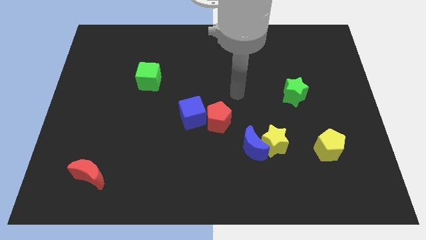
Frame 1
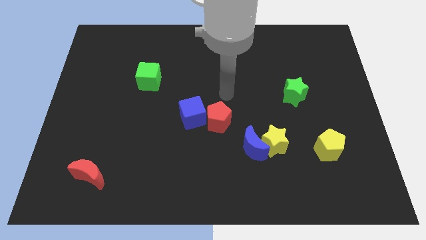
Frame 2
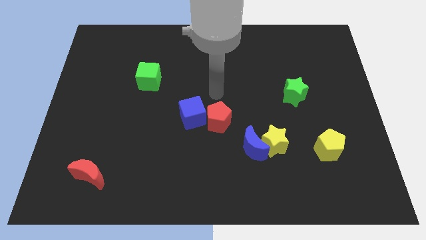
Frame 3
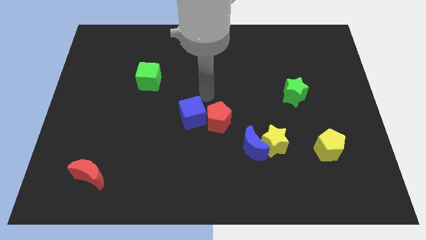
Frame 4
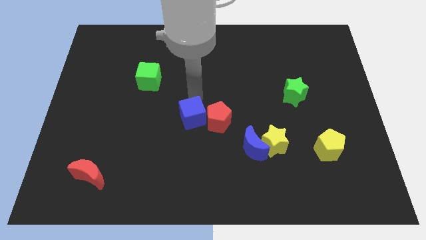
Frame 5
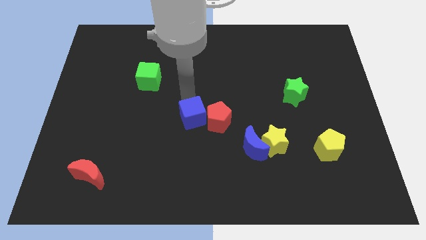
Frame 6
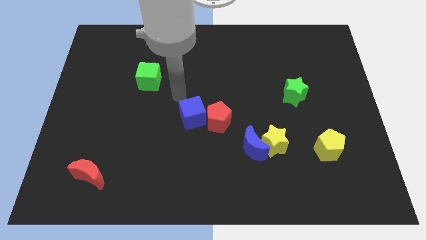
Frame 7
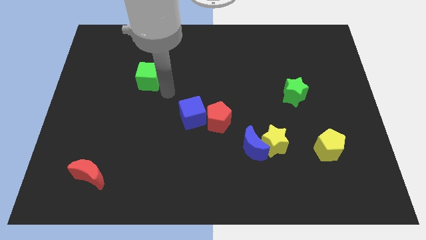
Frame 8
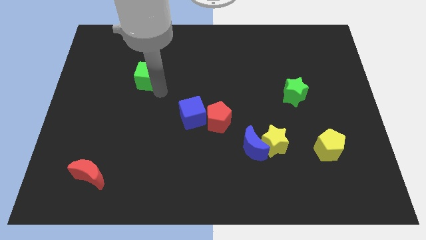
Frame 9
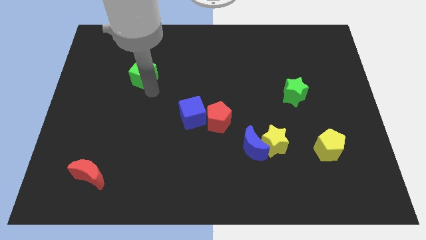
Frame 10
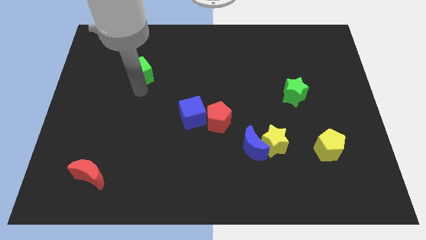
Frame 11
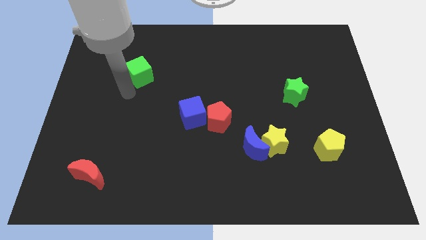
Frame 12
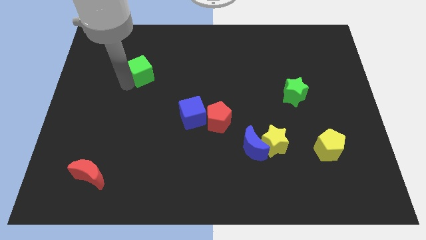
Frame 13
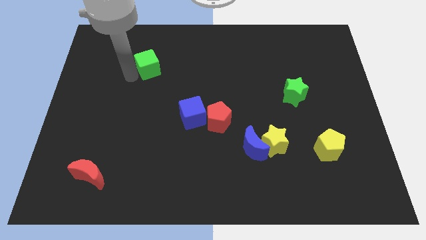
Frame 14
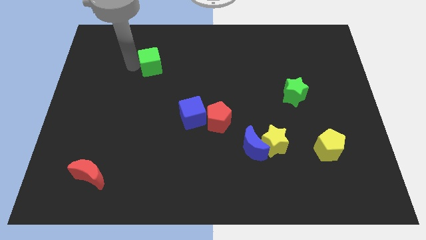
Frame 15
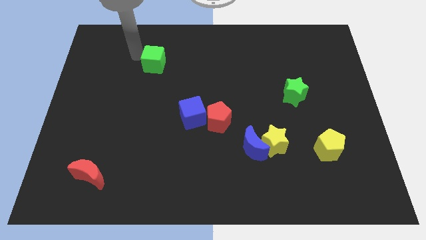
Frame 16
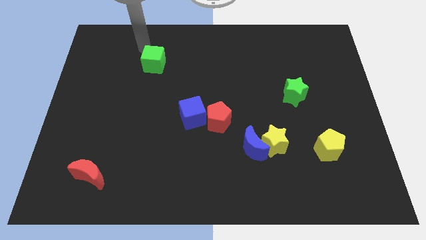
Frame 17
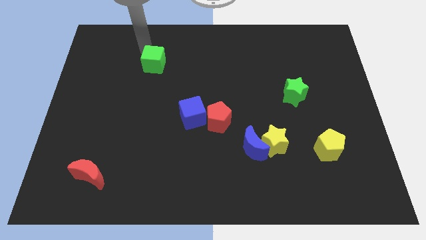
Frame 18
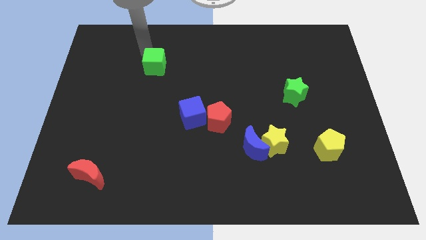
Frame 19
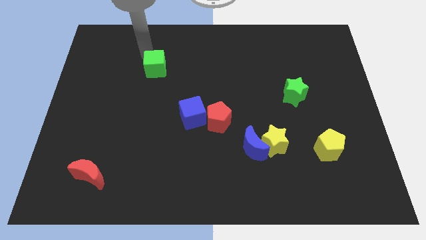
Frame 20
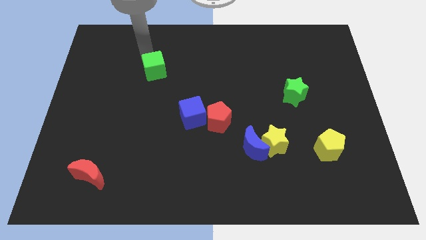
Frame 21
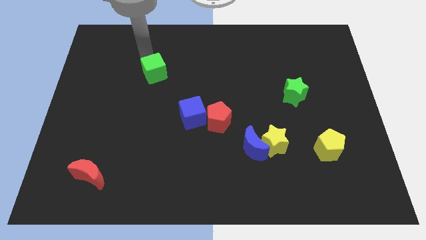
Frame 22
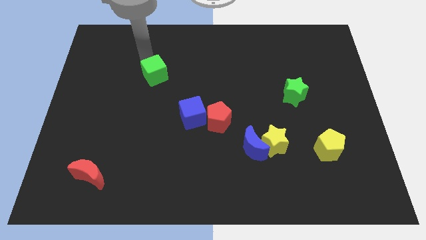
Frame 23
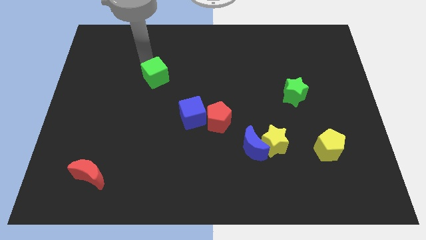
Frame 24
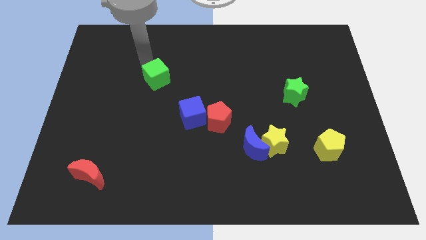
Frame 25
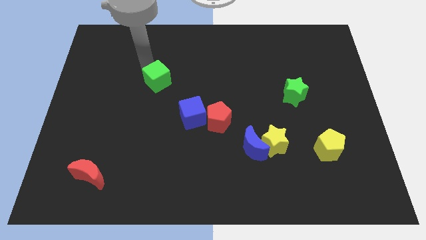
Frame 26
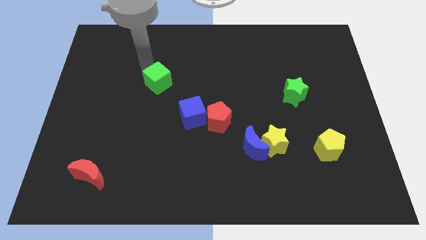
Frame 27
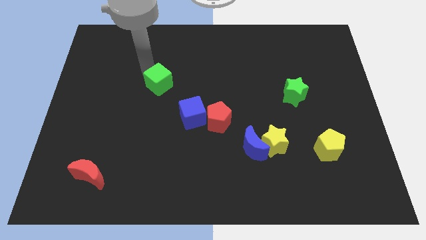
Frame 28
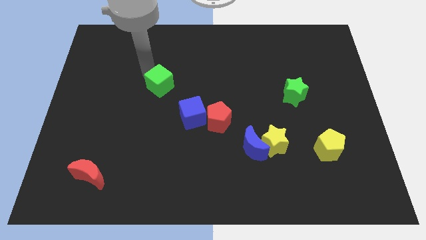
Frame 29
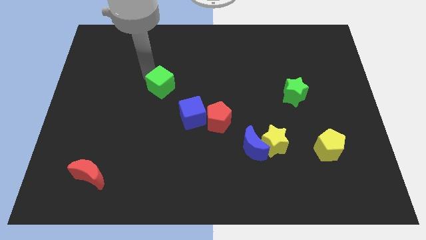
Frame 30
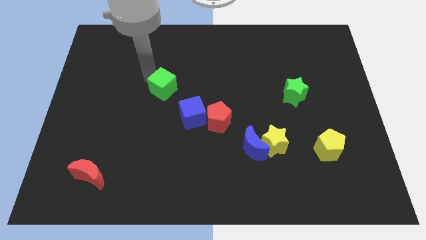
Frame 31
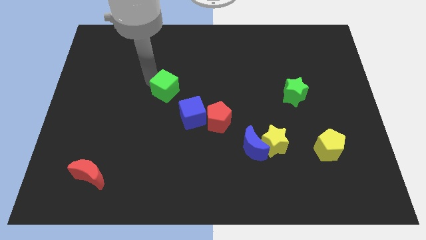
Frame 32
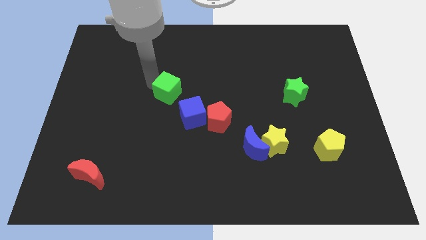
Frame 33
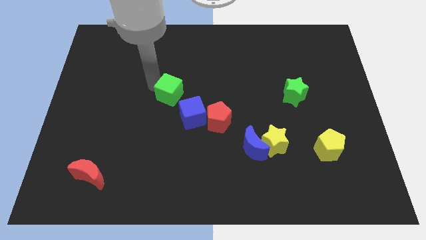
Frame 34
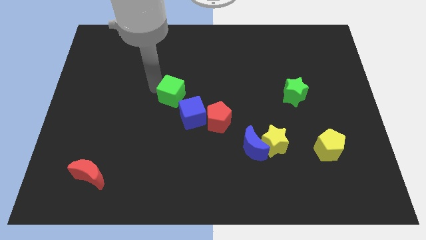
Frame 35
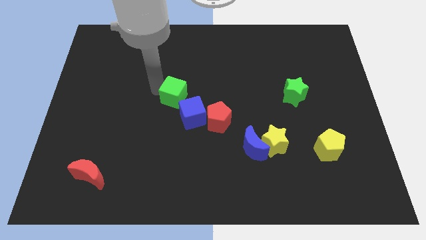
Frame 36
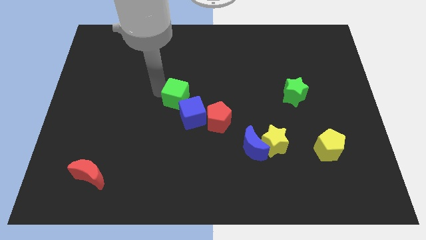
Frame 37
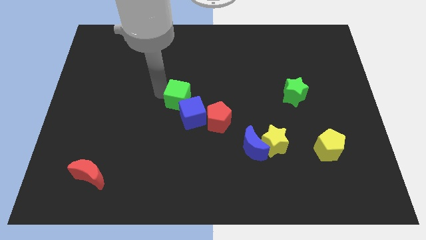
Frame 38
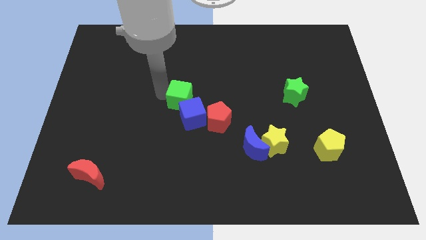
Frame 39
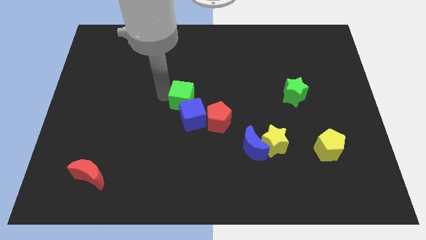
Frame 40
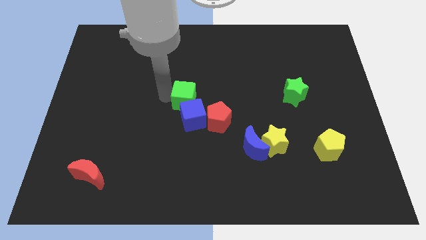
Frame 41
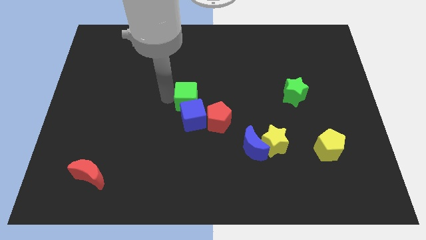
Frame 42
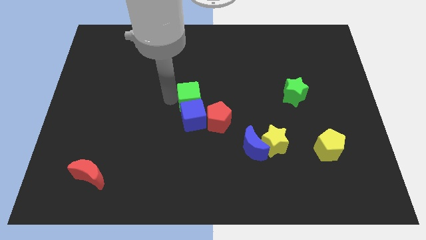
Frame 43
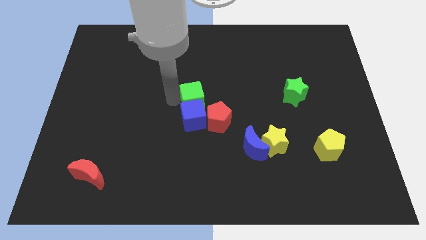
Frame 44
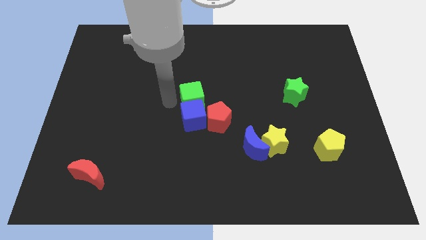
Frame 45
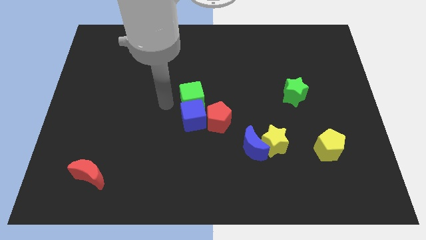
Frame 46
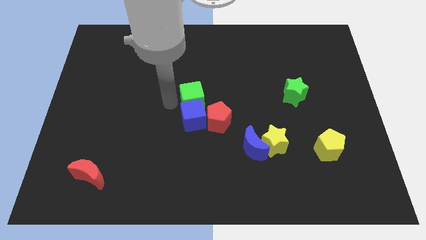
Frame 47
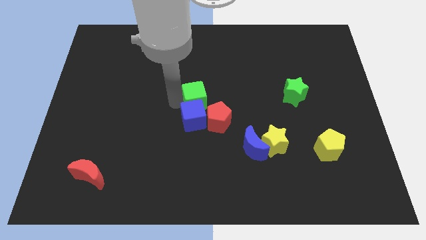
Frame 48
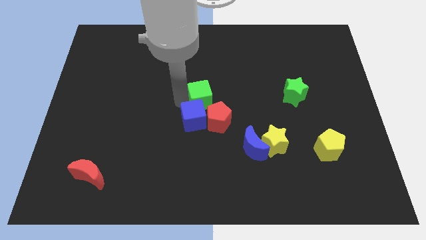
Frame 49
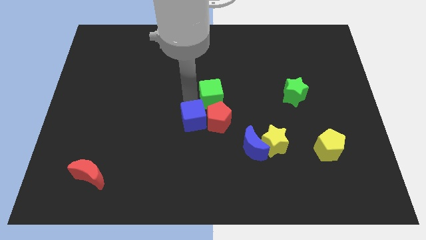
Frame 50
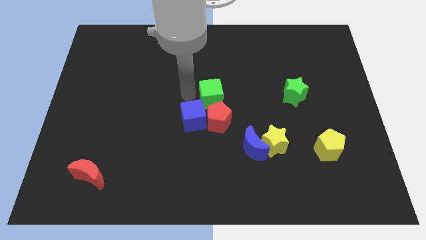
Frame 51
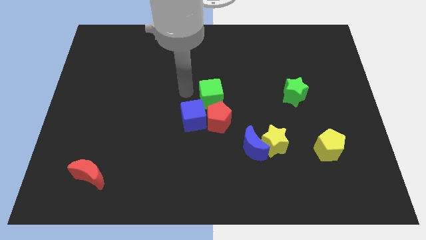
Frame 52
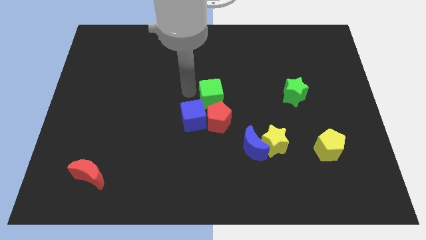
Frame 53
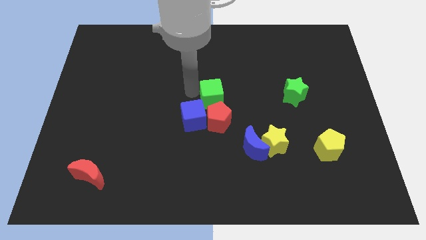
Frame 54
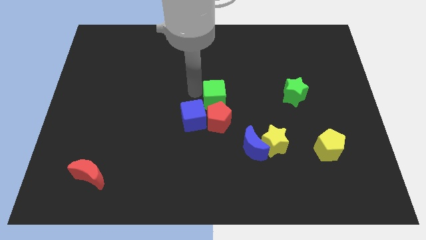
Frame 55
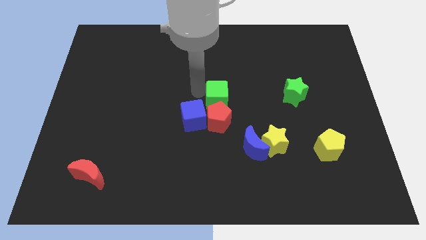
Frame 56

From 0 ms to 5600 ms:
slide the green cube to the top right side of the red pentagon

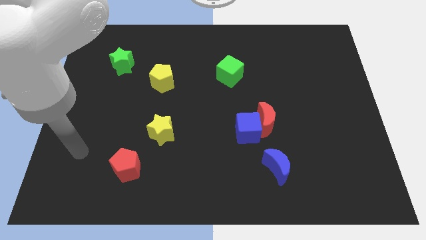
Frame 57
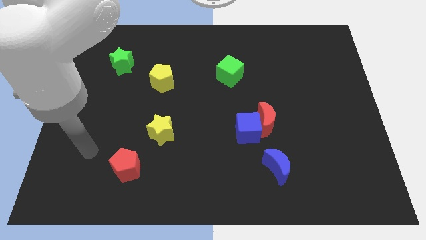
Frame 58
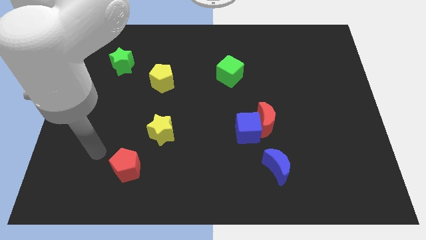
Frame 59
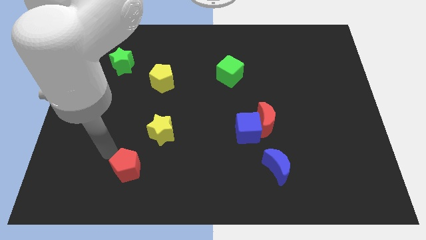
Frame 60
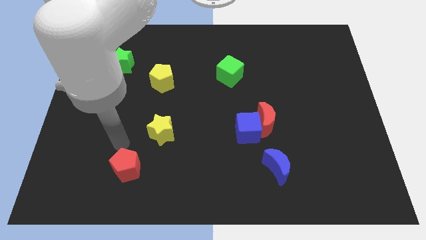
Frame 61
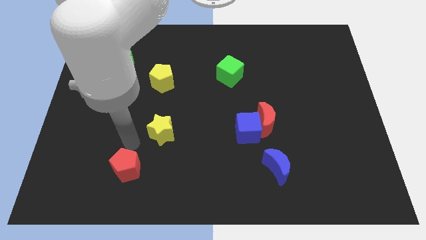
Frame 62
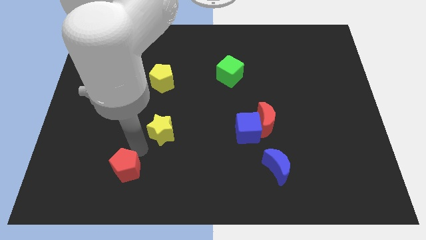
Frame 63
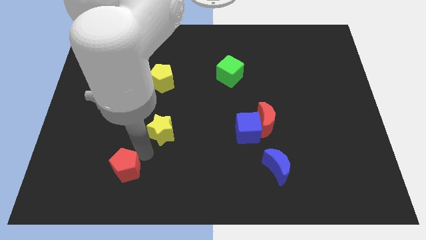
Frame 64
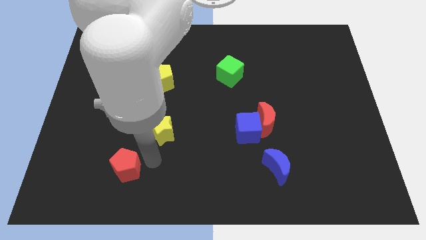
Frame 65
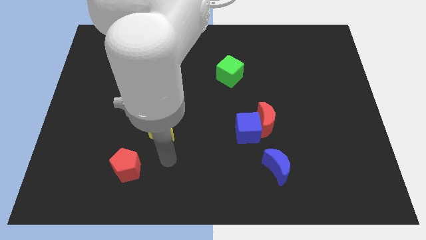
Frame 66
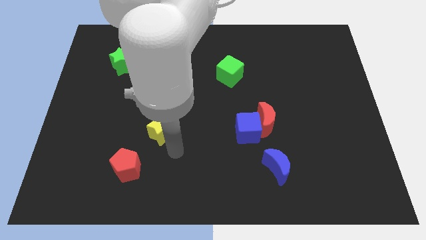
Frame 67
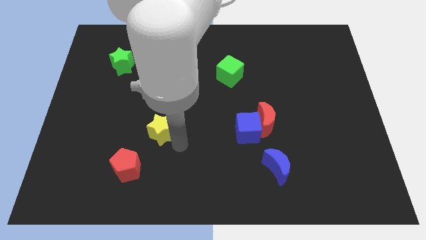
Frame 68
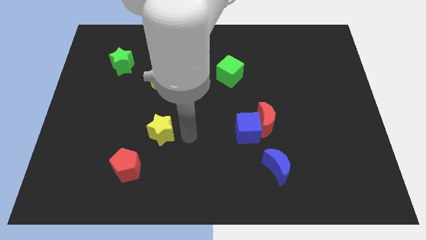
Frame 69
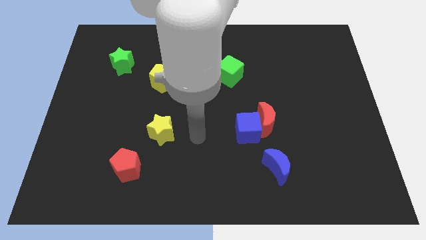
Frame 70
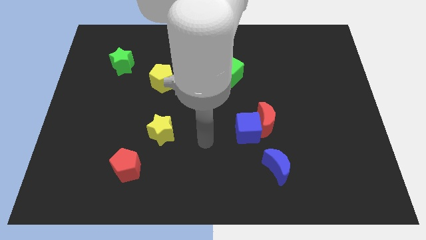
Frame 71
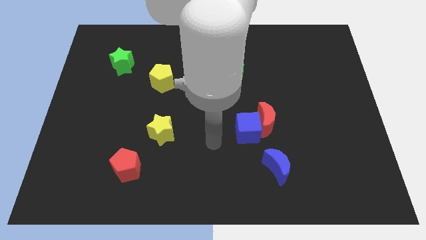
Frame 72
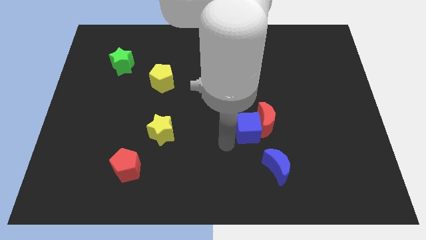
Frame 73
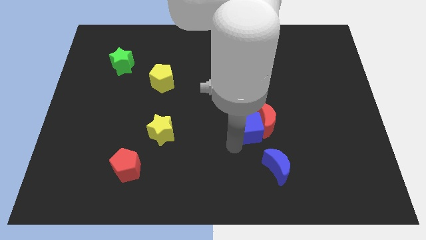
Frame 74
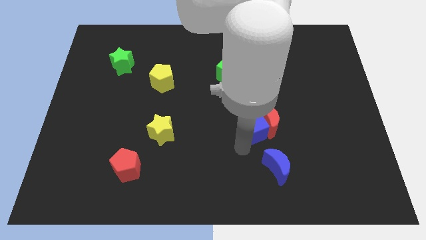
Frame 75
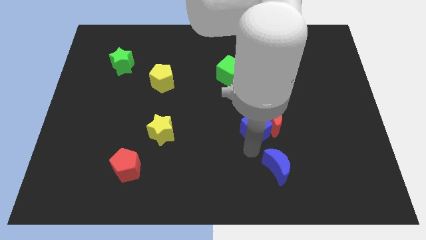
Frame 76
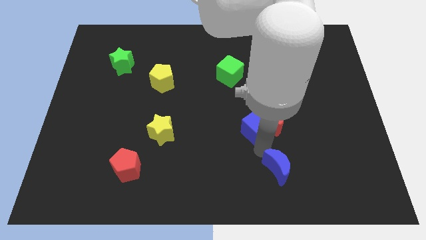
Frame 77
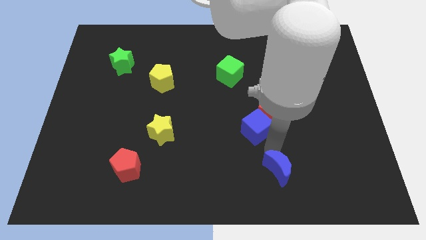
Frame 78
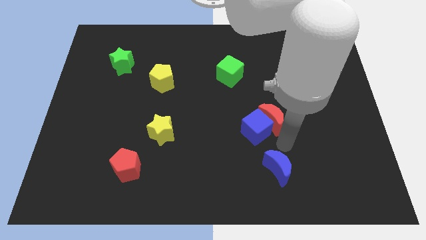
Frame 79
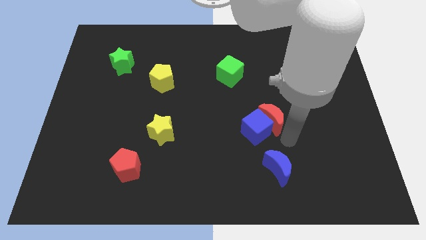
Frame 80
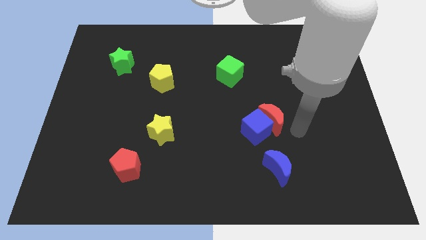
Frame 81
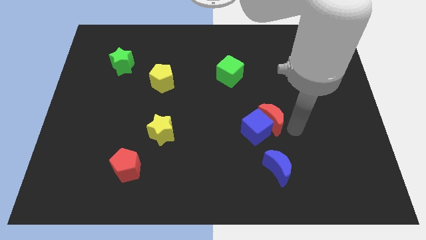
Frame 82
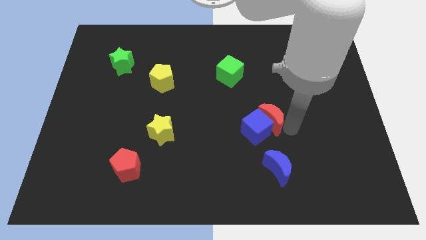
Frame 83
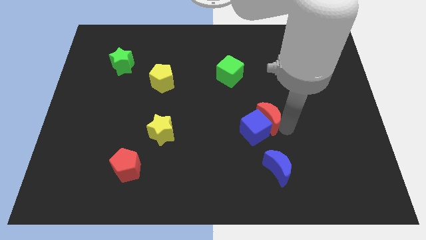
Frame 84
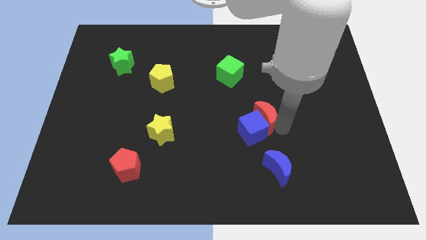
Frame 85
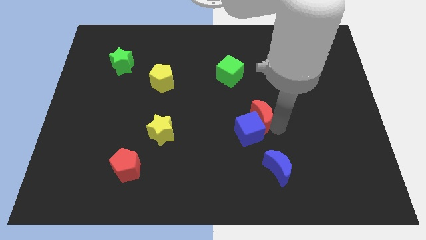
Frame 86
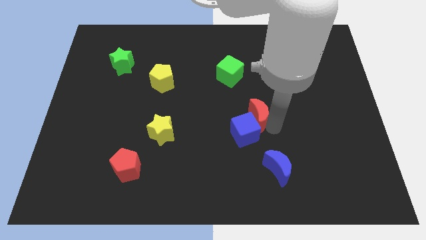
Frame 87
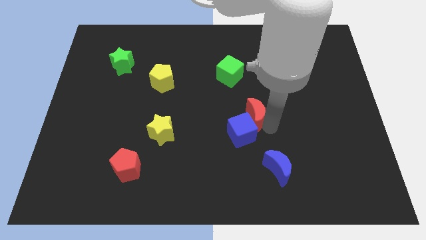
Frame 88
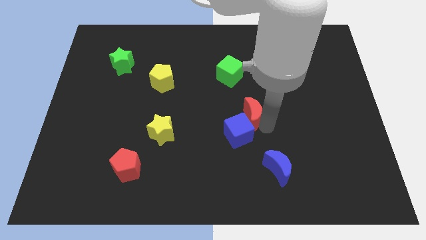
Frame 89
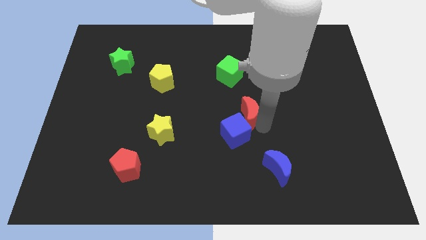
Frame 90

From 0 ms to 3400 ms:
push the red moon to the bottom of the green cube
